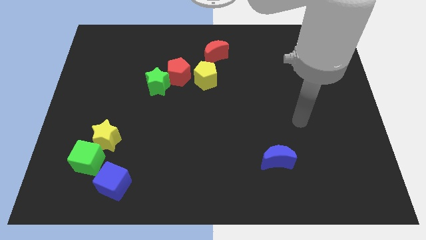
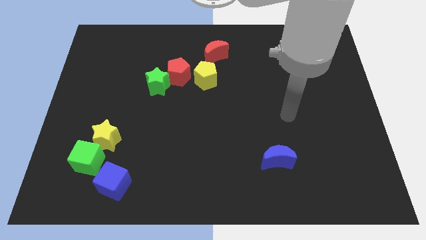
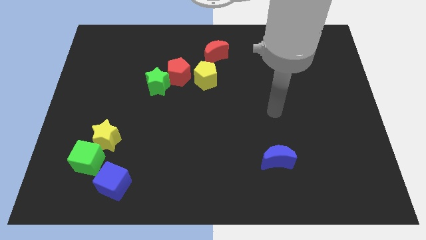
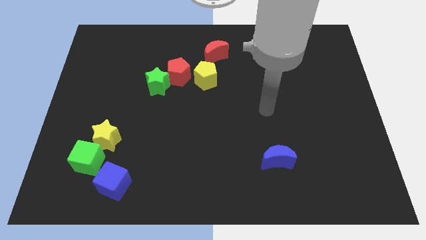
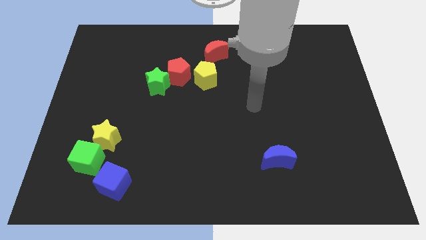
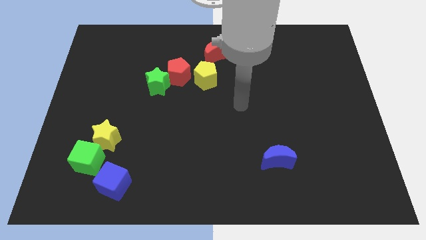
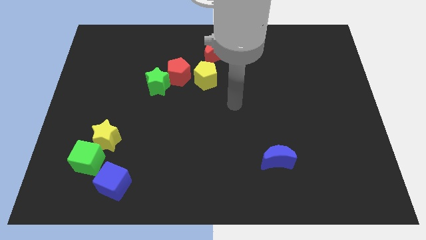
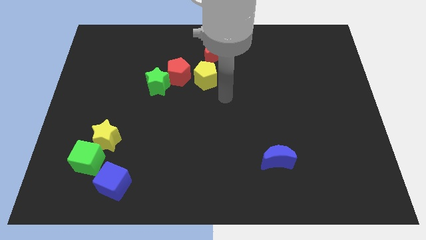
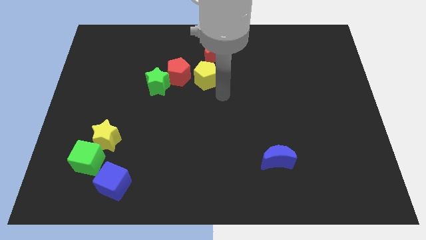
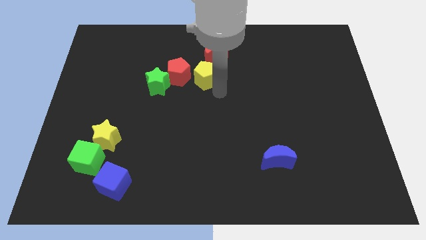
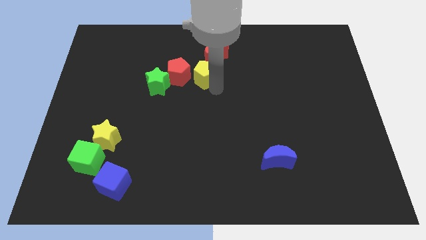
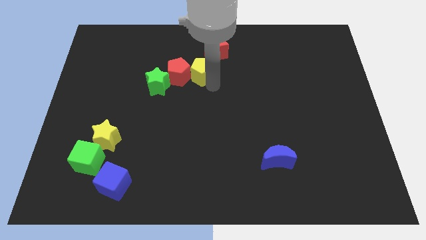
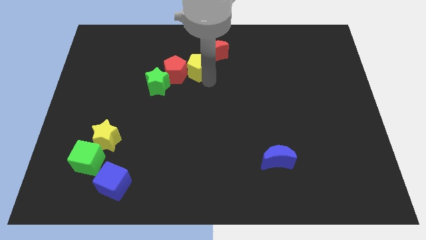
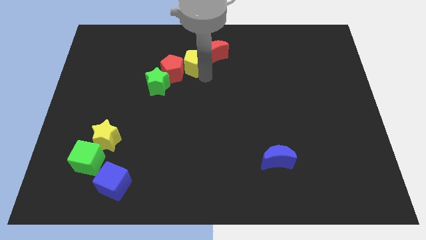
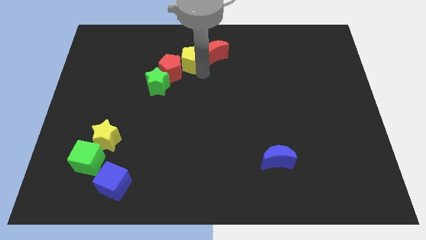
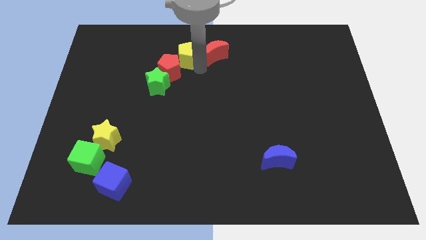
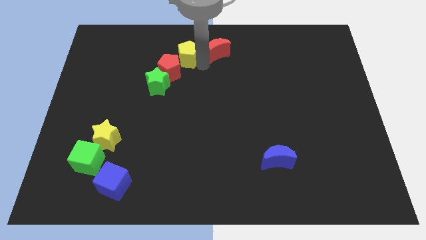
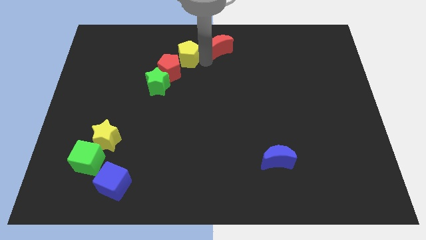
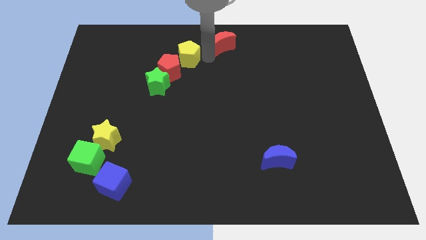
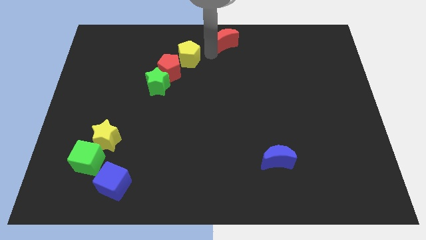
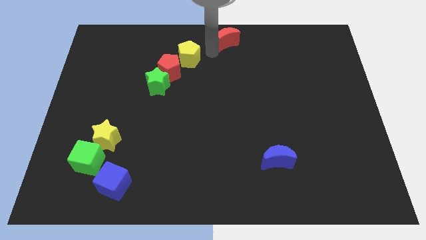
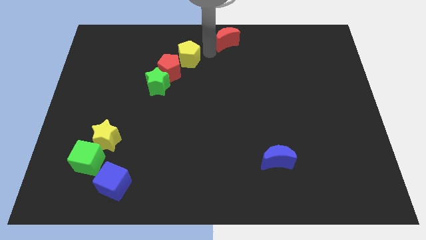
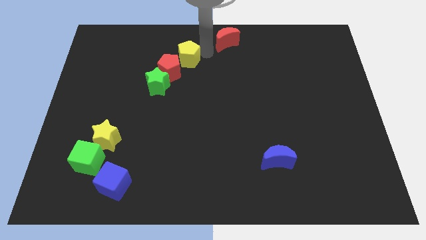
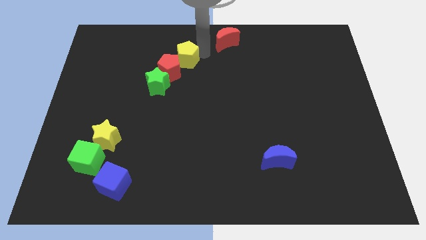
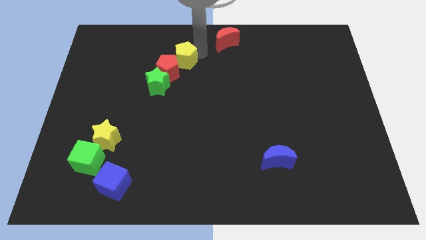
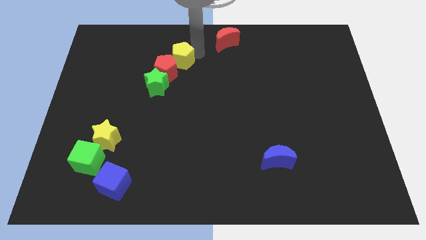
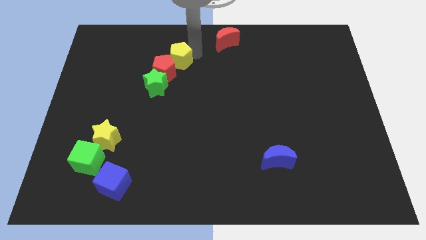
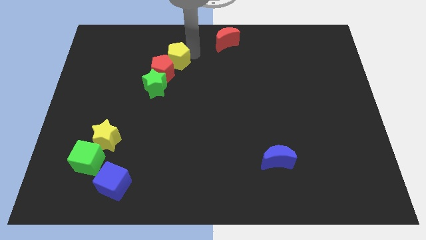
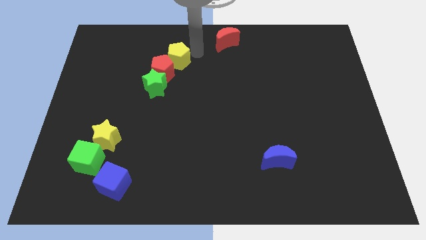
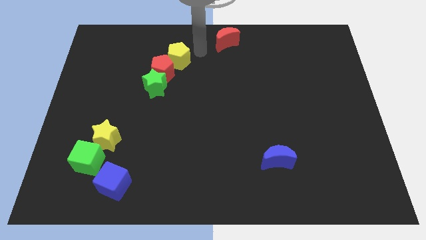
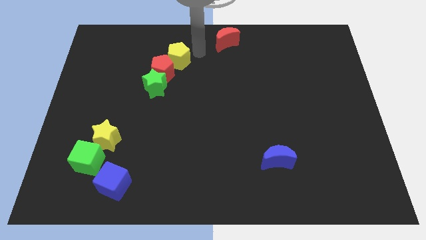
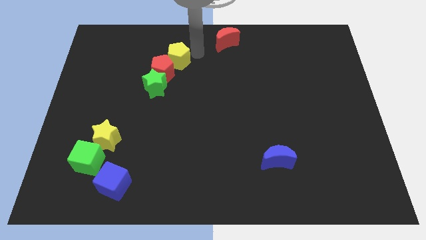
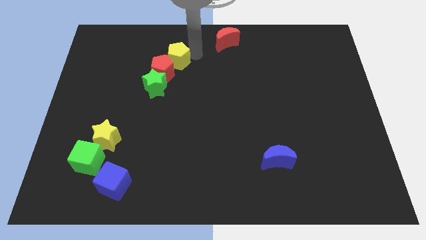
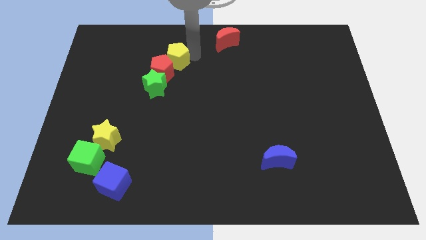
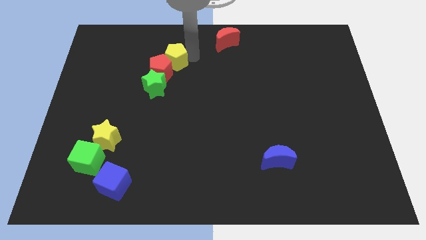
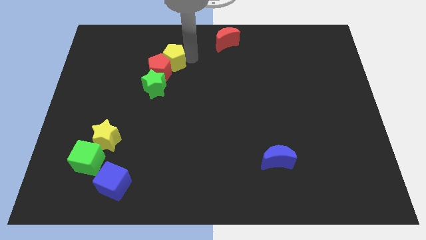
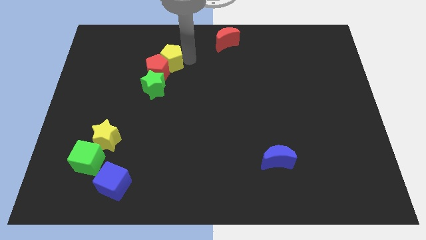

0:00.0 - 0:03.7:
push the yellow pentagon left a little bit

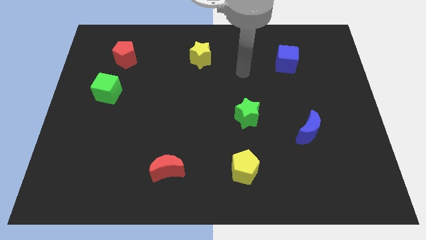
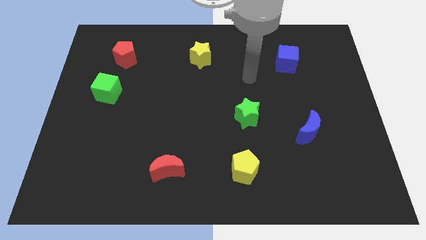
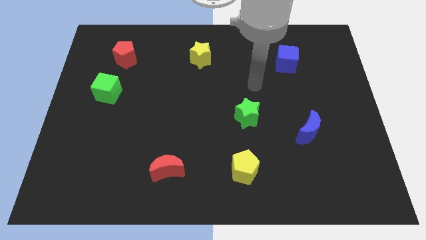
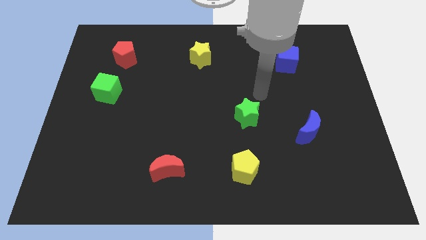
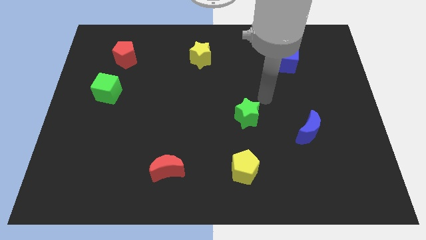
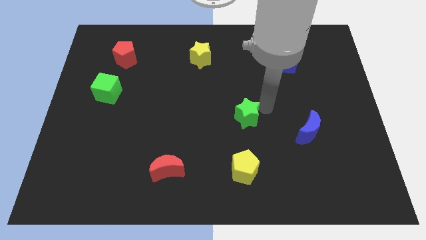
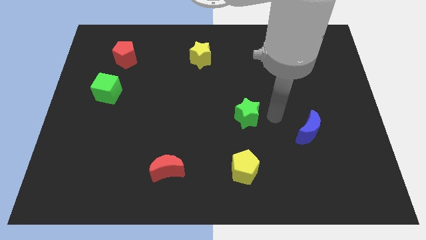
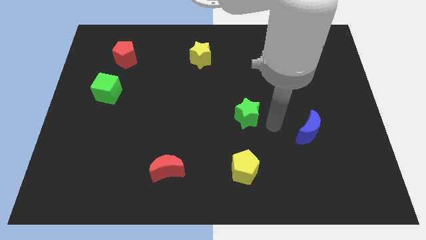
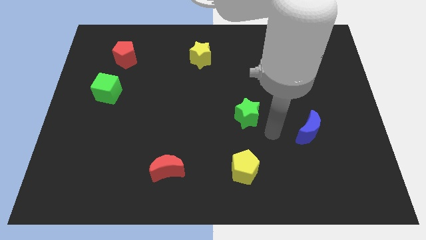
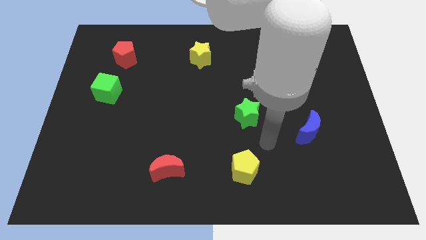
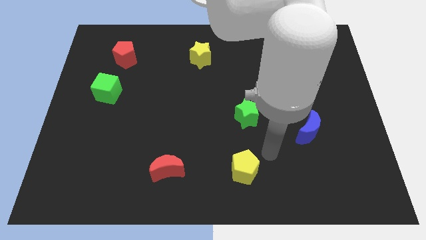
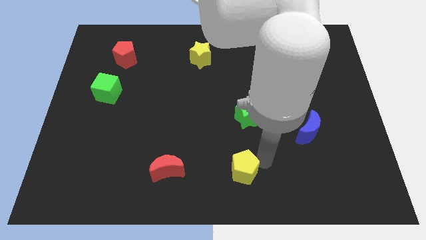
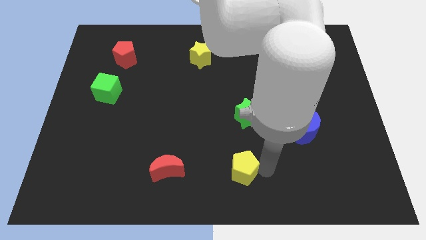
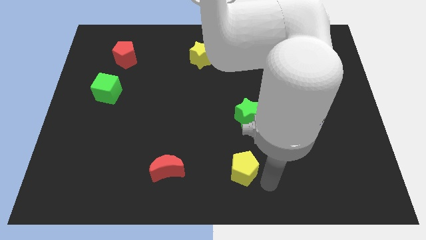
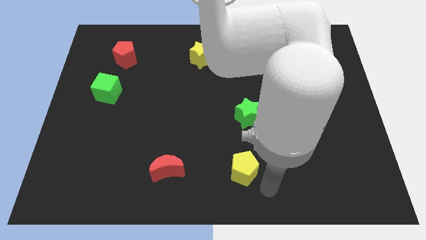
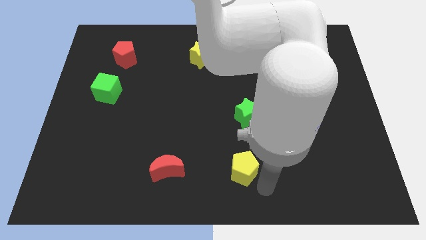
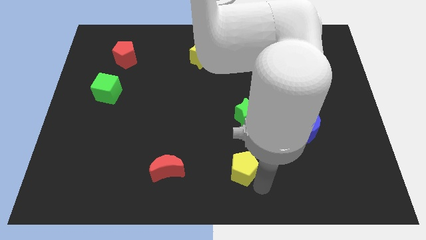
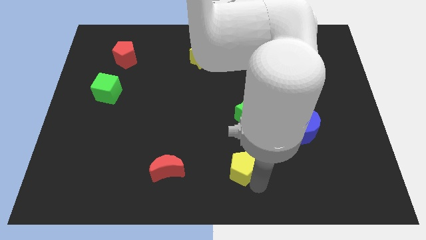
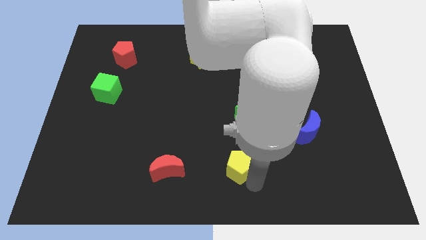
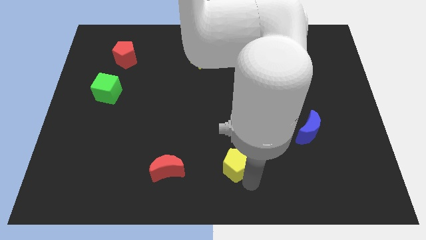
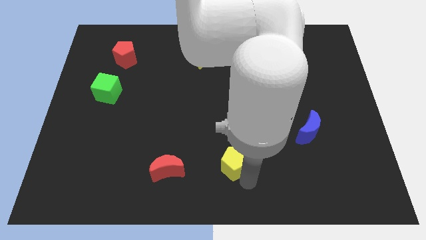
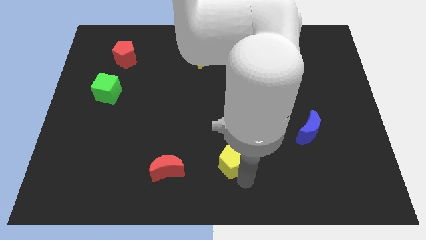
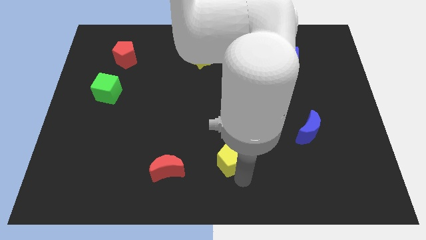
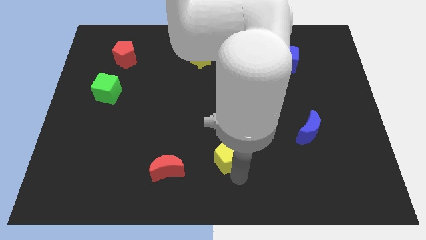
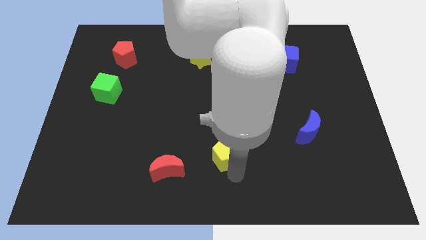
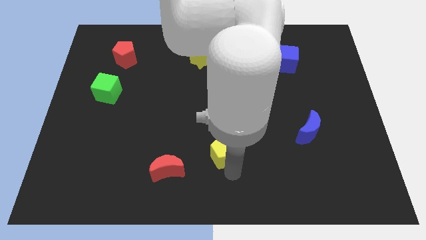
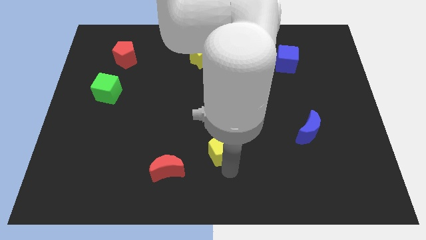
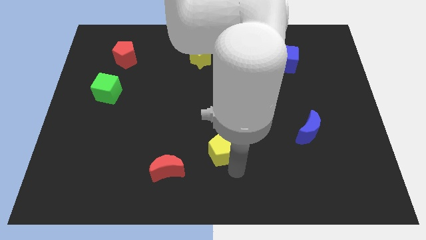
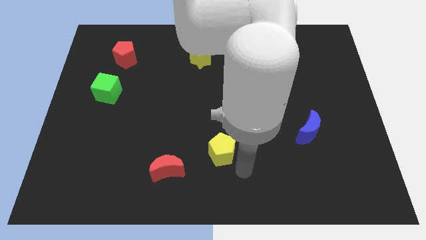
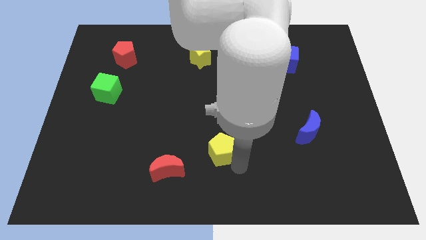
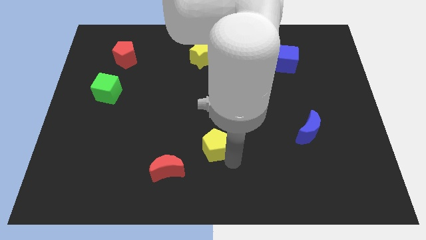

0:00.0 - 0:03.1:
push the yellow pentagon slightly diagonally up and to the left

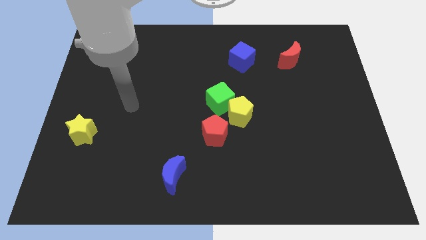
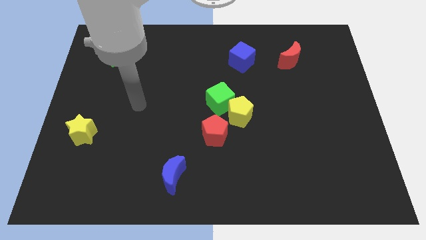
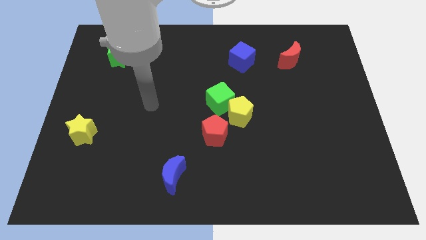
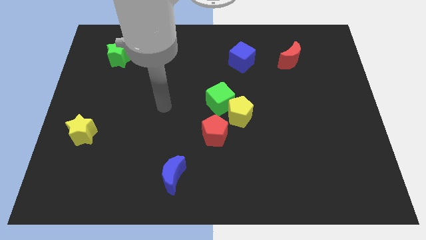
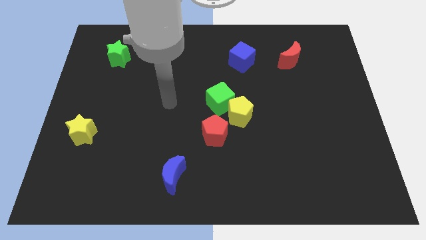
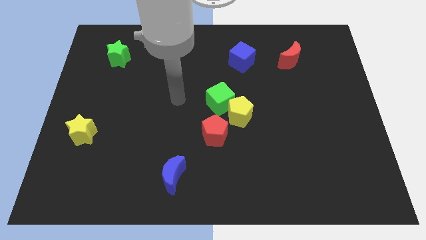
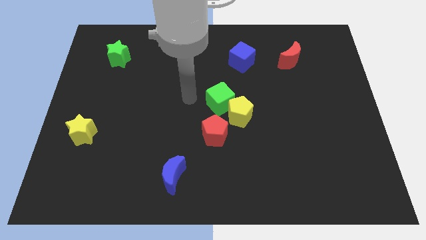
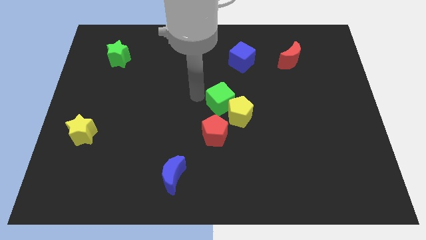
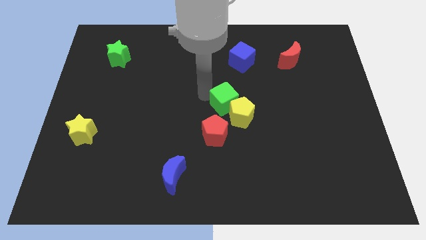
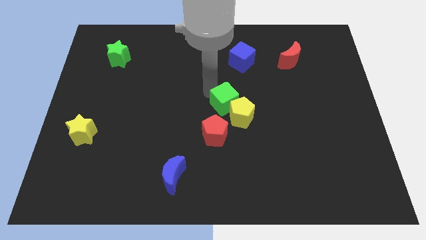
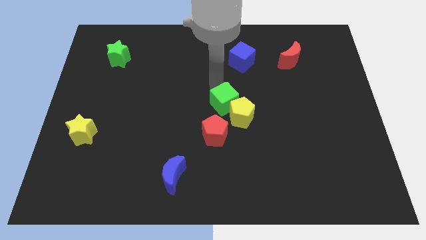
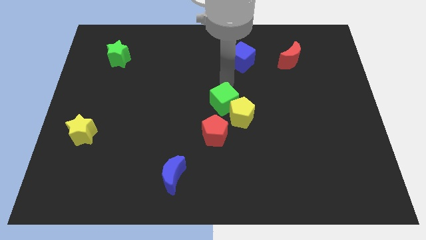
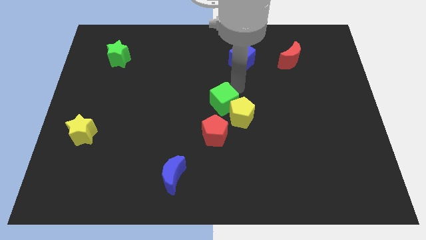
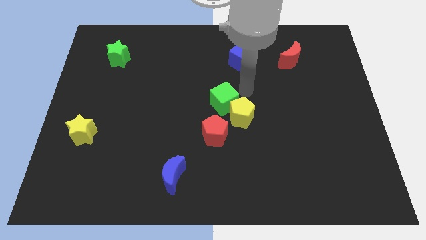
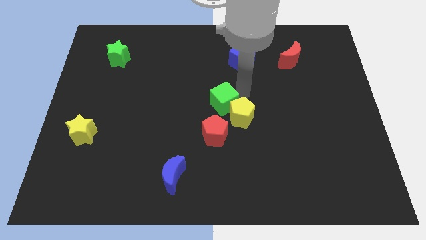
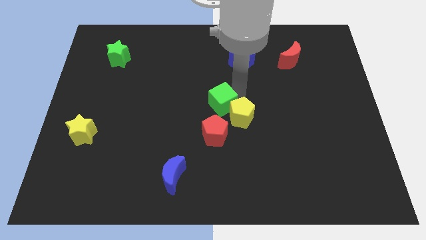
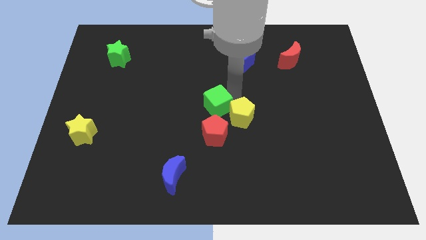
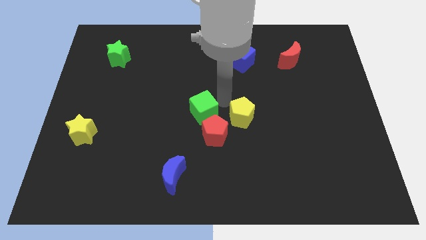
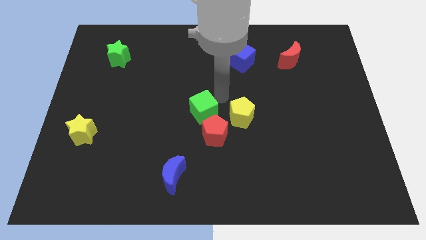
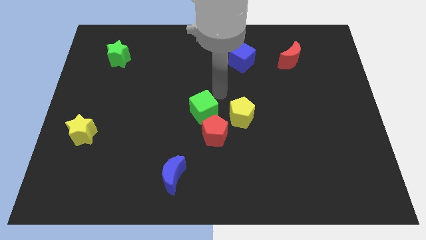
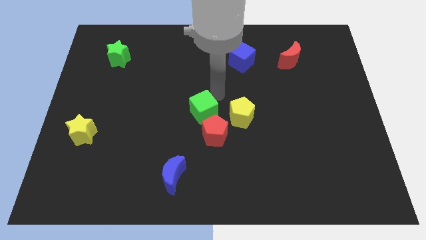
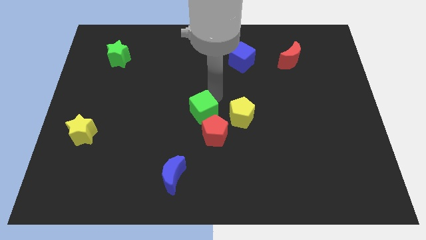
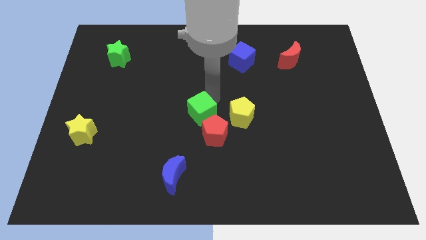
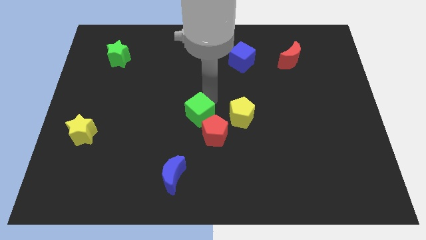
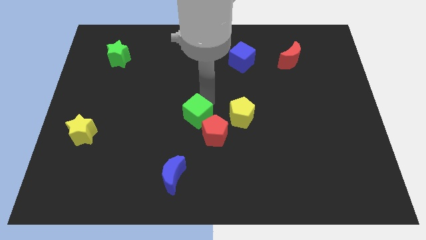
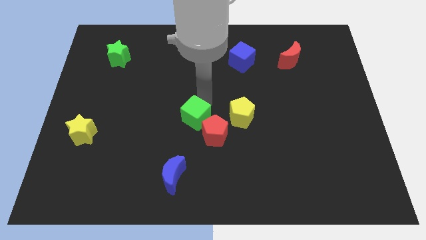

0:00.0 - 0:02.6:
slide the green cube a bit diagonally downwards and left
